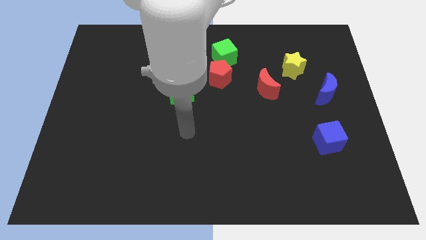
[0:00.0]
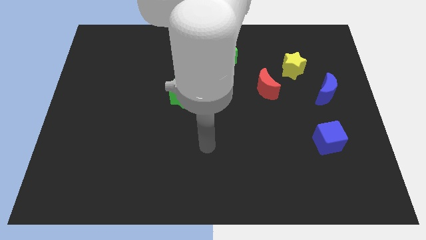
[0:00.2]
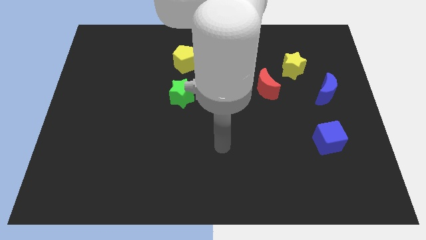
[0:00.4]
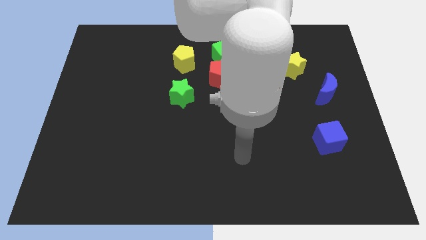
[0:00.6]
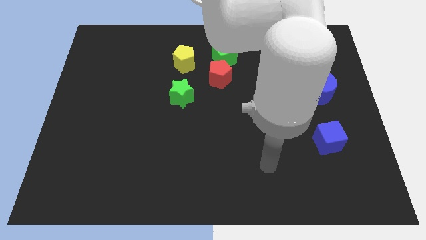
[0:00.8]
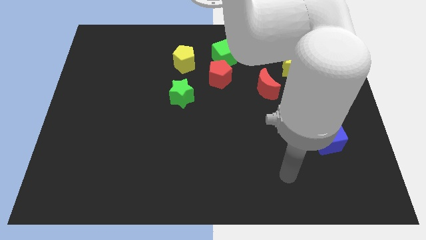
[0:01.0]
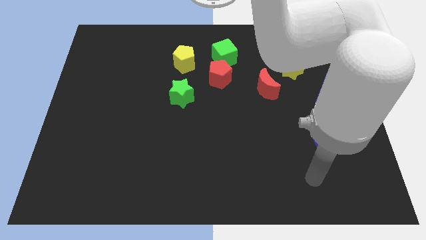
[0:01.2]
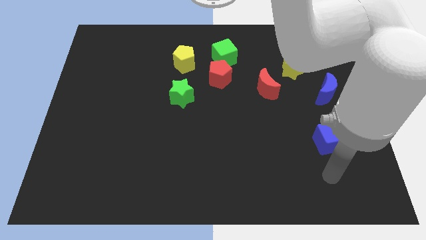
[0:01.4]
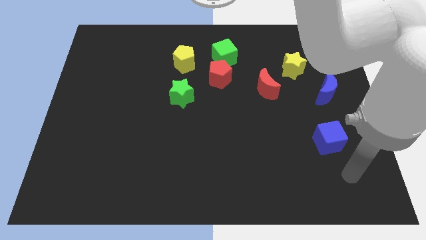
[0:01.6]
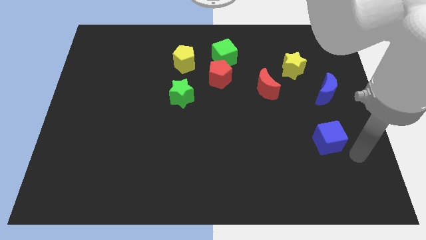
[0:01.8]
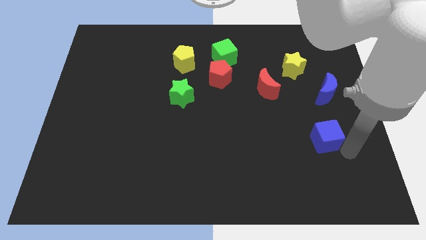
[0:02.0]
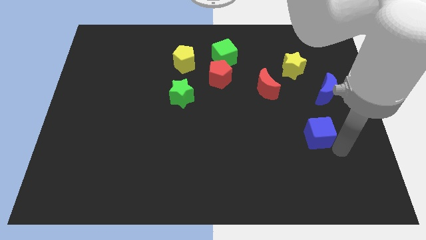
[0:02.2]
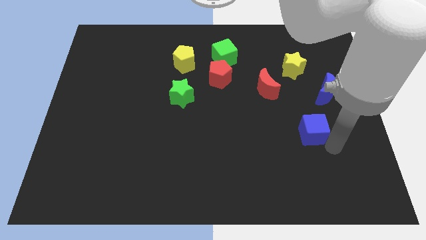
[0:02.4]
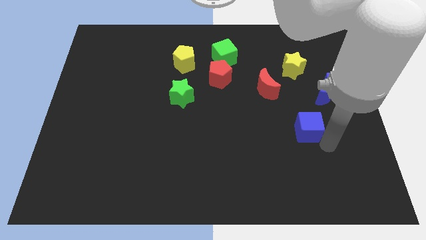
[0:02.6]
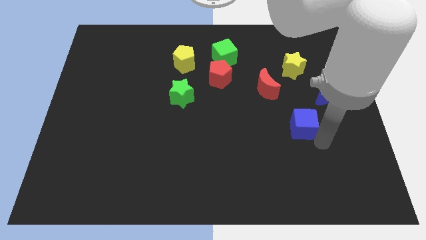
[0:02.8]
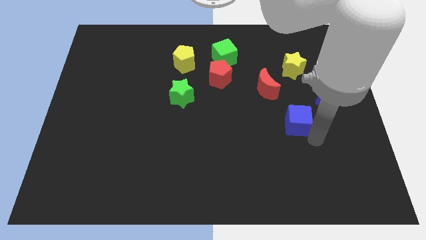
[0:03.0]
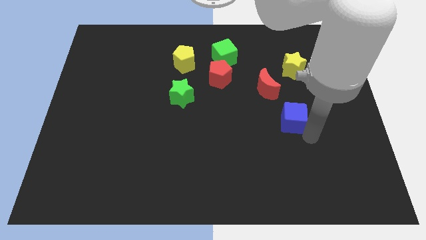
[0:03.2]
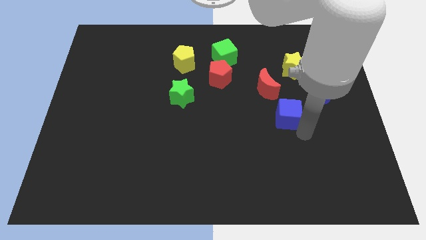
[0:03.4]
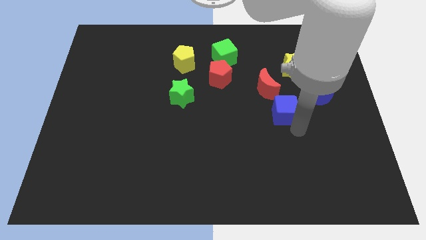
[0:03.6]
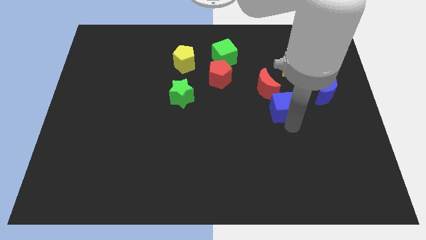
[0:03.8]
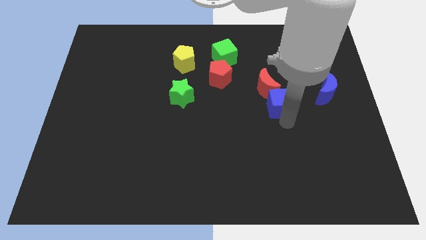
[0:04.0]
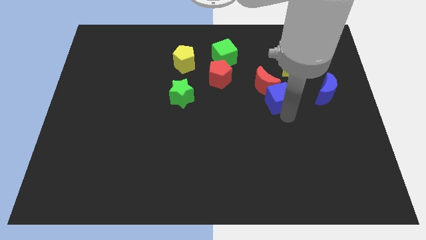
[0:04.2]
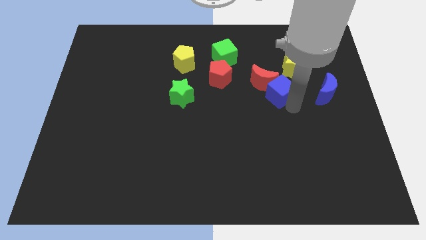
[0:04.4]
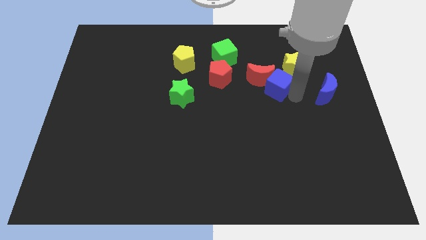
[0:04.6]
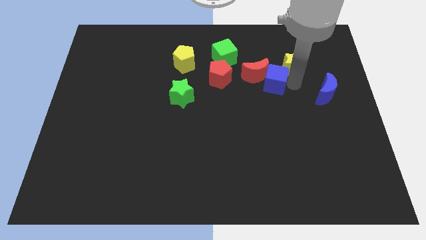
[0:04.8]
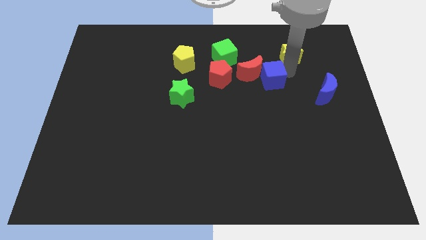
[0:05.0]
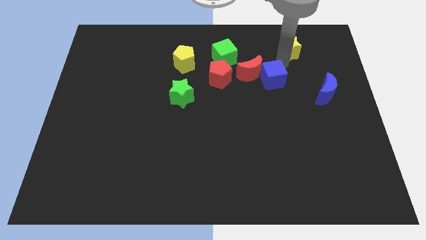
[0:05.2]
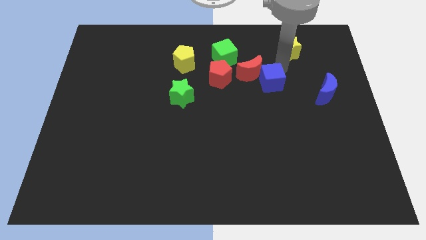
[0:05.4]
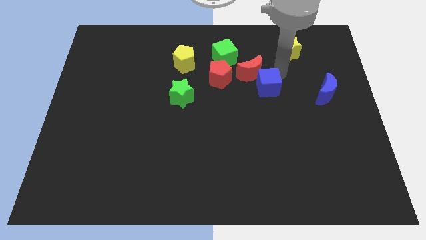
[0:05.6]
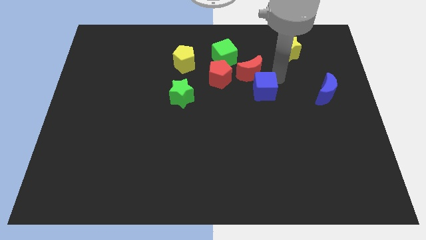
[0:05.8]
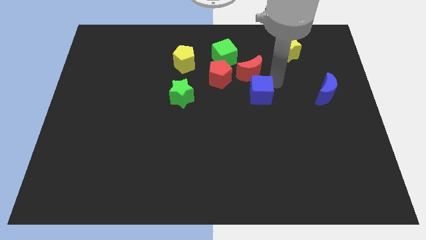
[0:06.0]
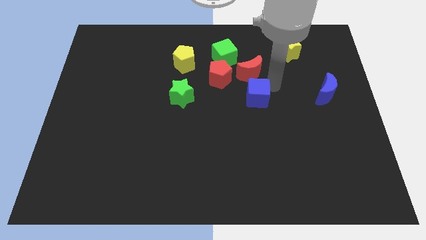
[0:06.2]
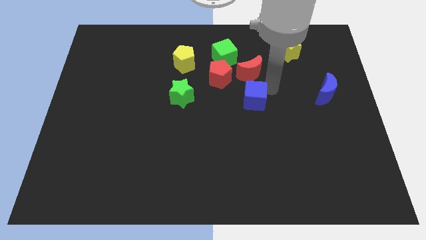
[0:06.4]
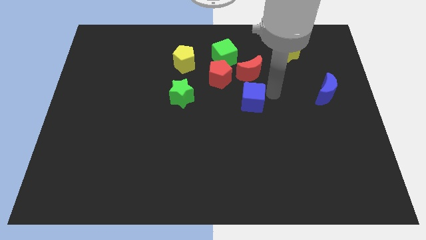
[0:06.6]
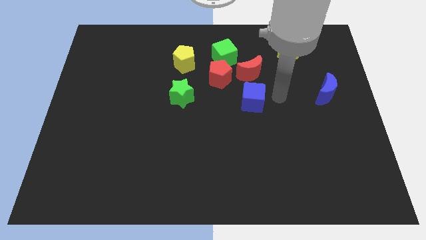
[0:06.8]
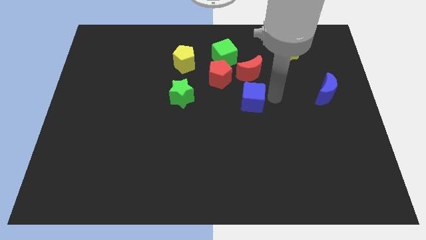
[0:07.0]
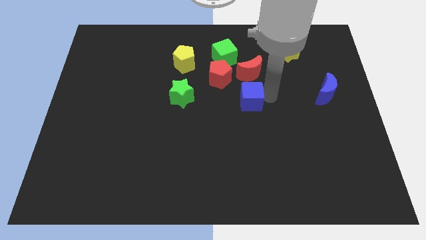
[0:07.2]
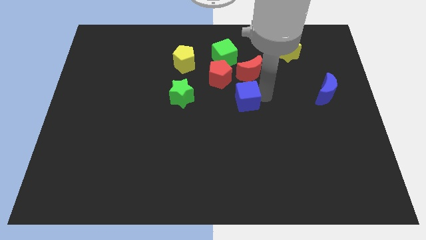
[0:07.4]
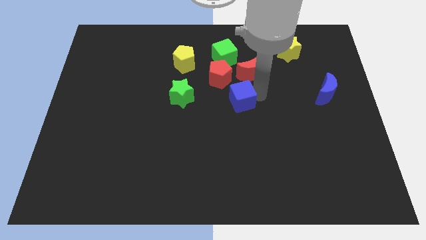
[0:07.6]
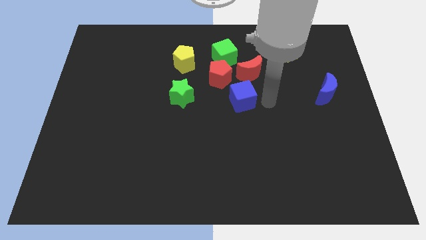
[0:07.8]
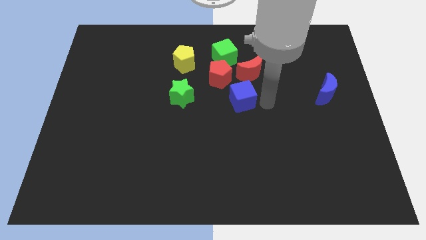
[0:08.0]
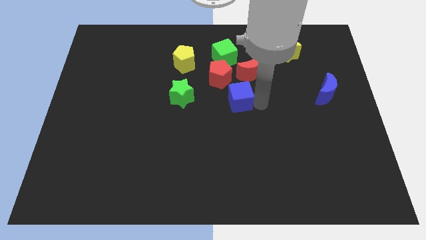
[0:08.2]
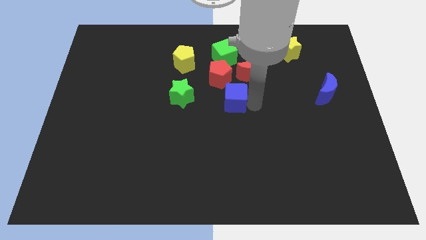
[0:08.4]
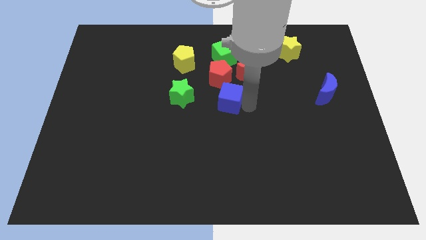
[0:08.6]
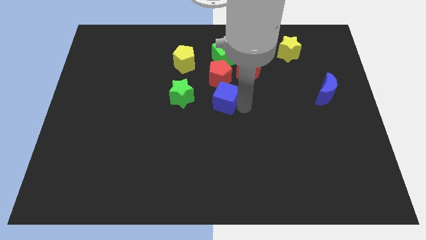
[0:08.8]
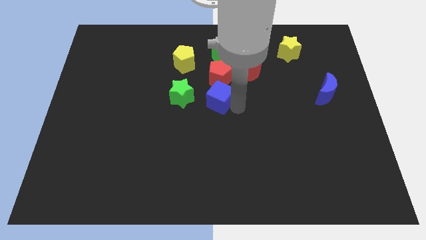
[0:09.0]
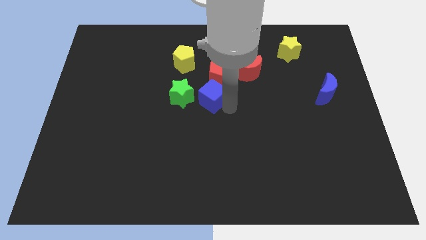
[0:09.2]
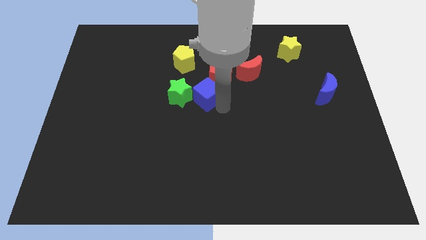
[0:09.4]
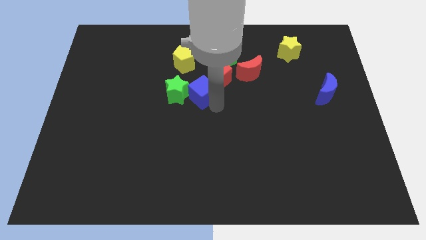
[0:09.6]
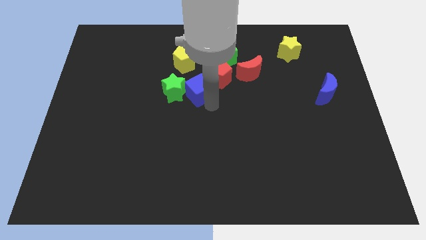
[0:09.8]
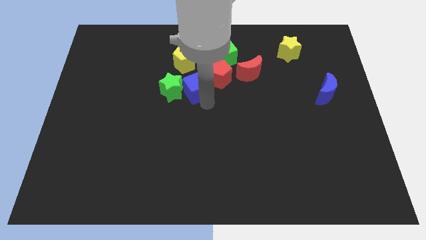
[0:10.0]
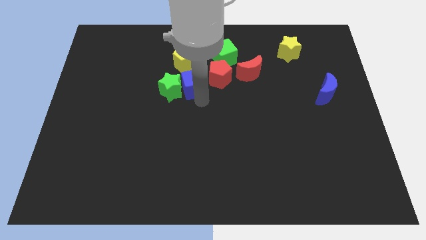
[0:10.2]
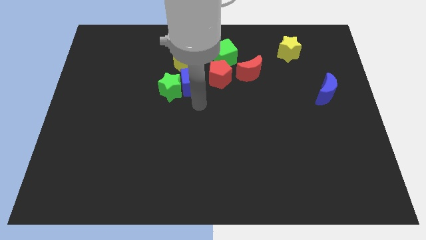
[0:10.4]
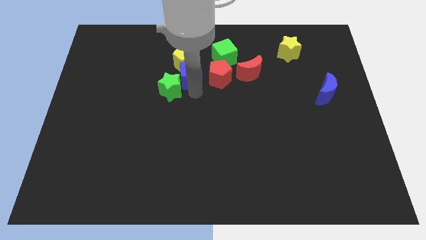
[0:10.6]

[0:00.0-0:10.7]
put the blue cube towards the yellow pentagon

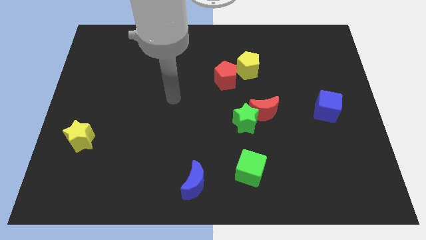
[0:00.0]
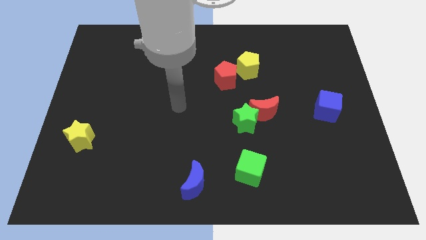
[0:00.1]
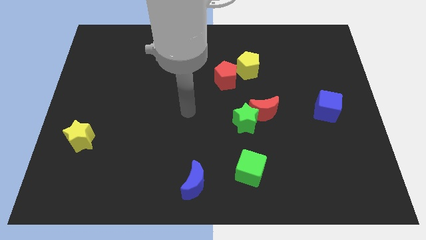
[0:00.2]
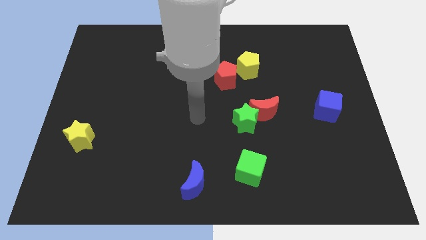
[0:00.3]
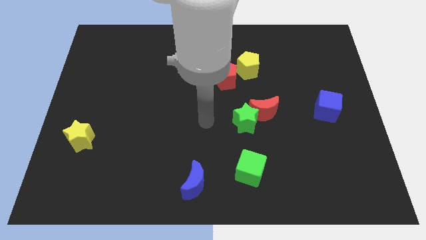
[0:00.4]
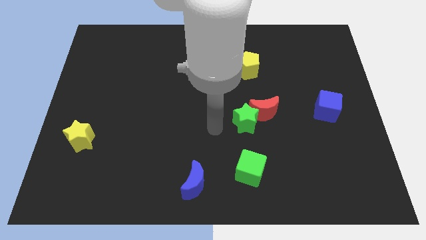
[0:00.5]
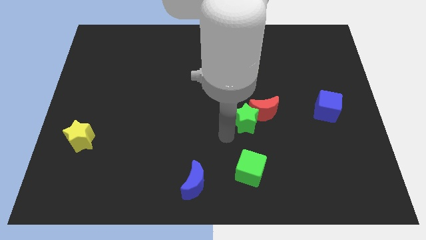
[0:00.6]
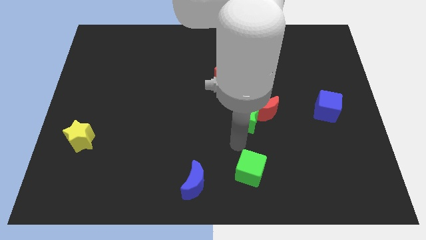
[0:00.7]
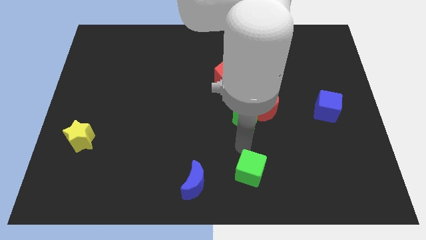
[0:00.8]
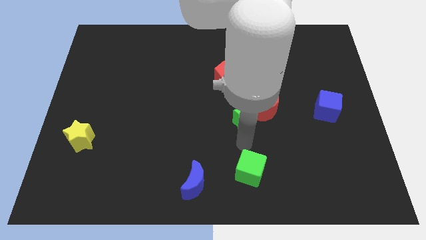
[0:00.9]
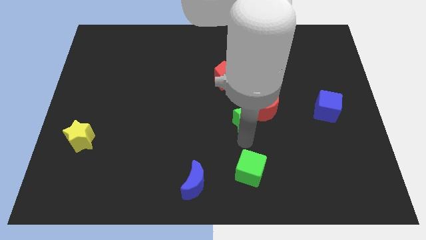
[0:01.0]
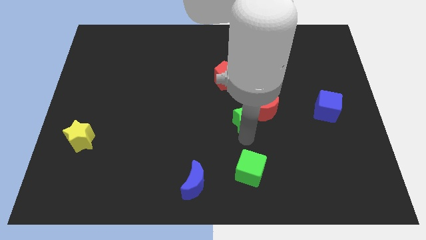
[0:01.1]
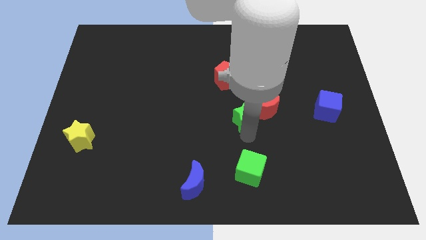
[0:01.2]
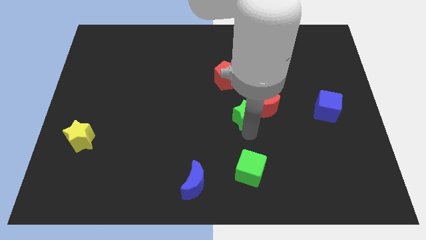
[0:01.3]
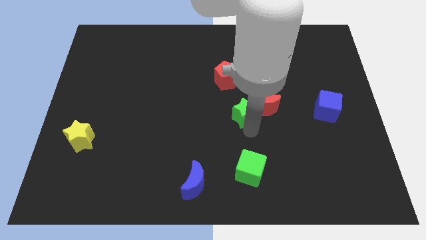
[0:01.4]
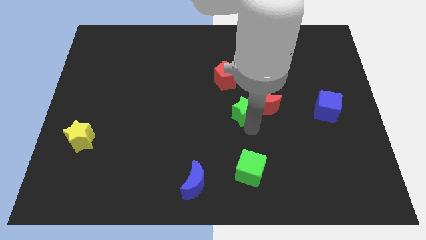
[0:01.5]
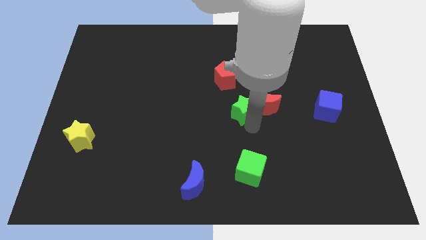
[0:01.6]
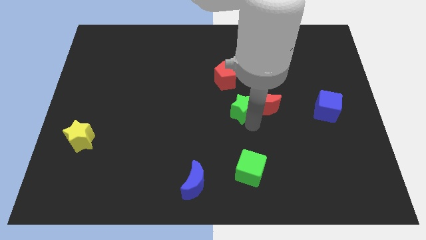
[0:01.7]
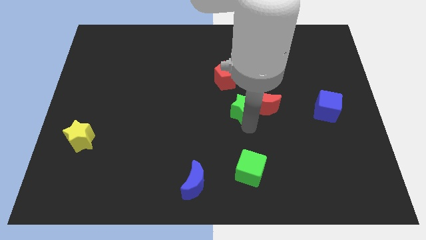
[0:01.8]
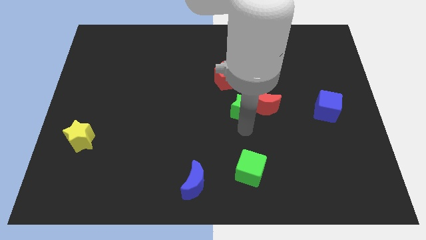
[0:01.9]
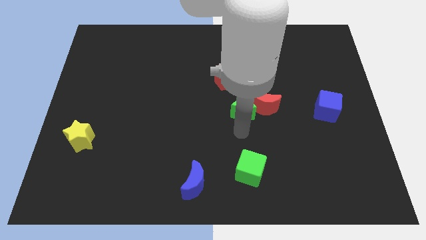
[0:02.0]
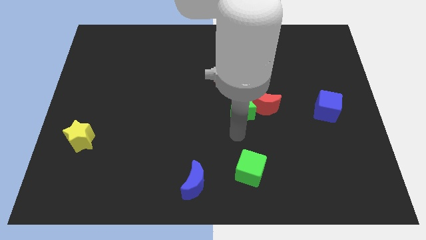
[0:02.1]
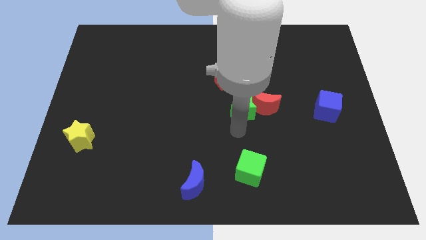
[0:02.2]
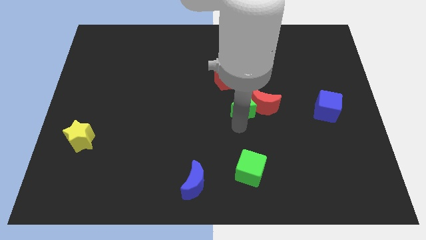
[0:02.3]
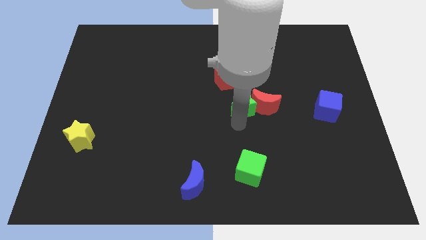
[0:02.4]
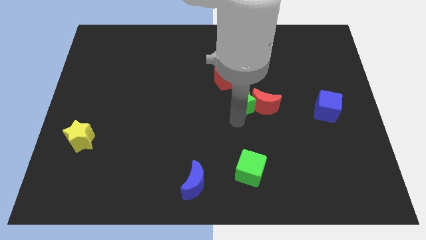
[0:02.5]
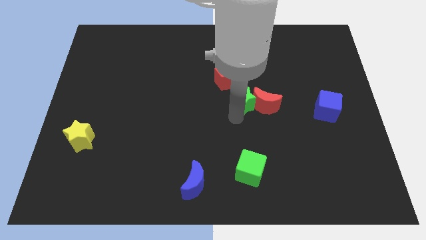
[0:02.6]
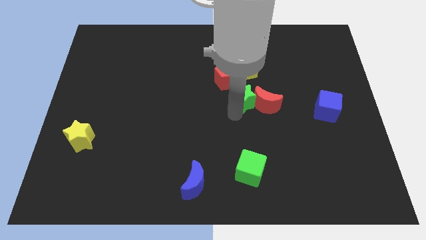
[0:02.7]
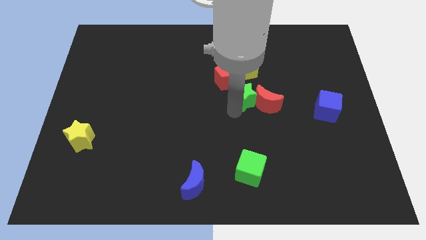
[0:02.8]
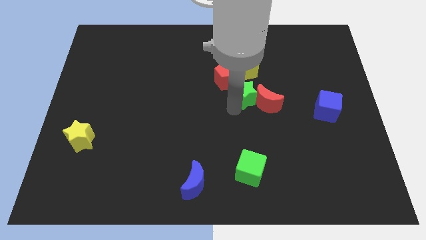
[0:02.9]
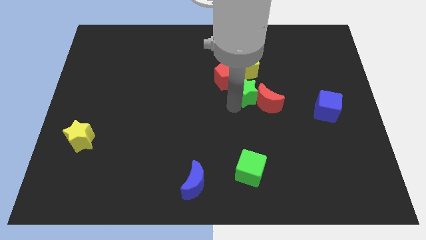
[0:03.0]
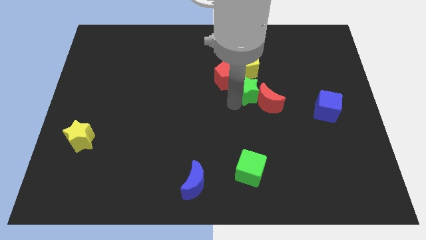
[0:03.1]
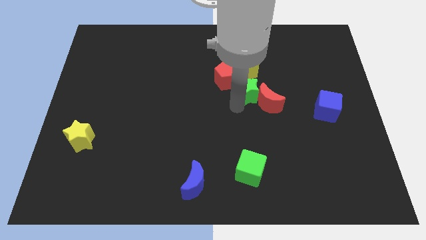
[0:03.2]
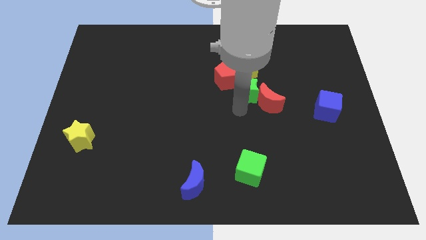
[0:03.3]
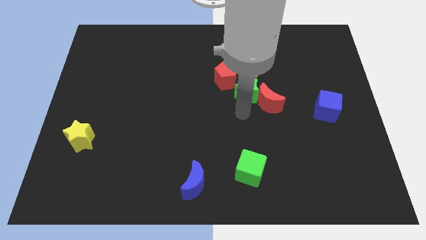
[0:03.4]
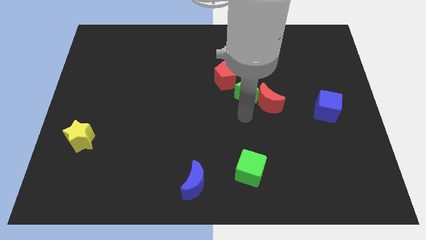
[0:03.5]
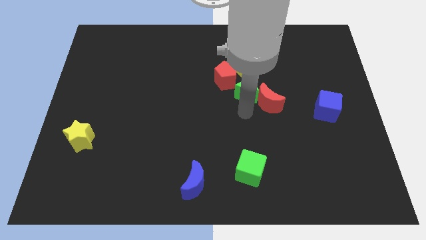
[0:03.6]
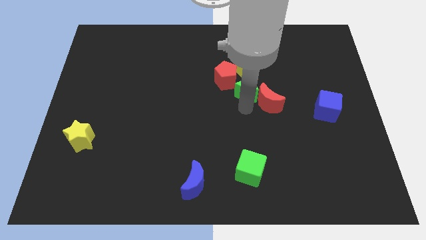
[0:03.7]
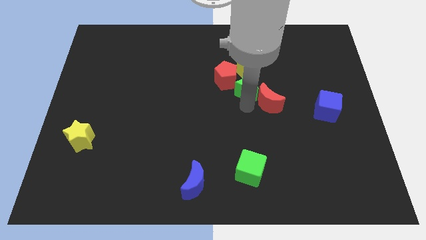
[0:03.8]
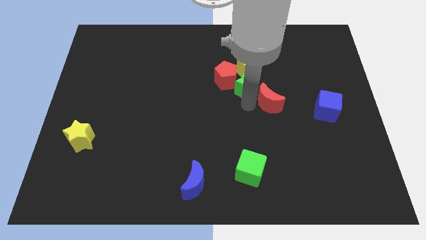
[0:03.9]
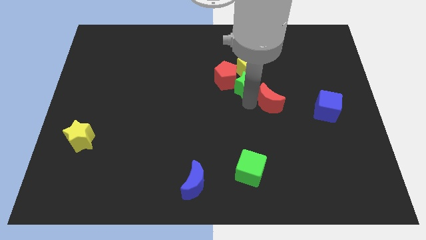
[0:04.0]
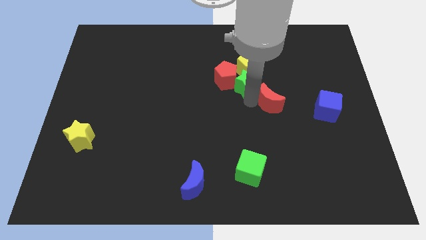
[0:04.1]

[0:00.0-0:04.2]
push the green star towards the yellow pentagon
